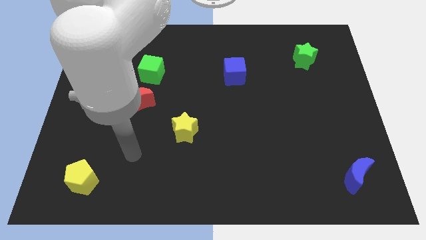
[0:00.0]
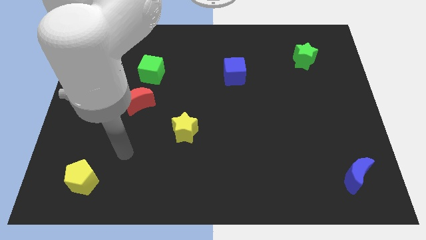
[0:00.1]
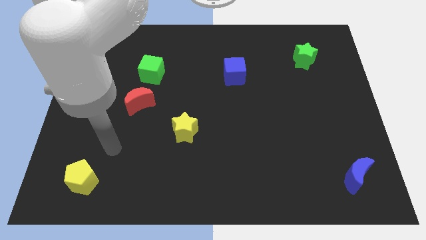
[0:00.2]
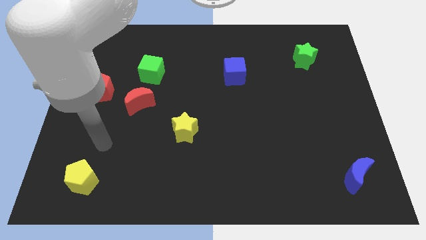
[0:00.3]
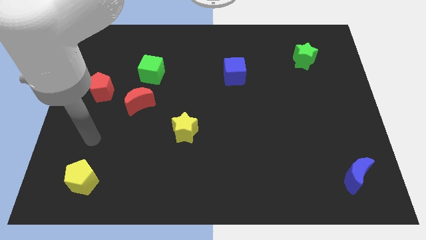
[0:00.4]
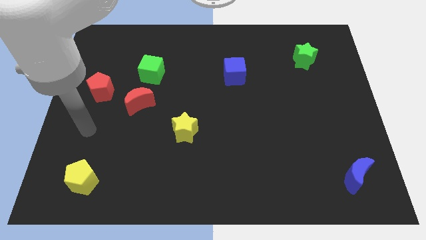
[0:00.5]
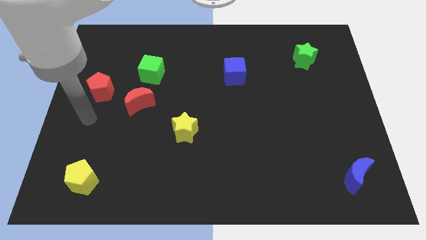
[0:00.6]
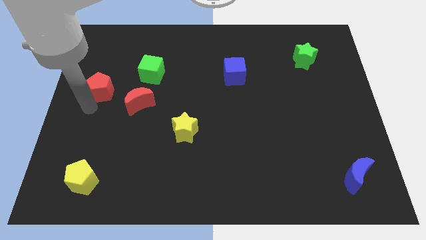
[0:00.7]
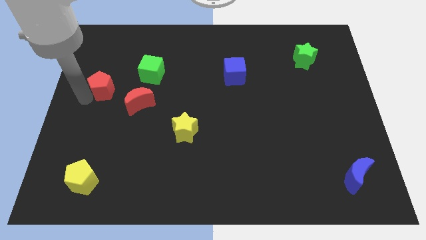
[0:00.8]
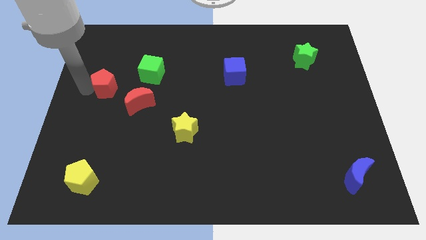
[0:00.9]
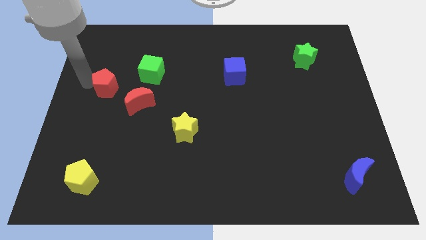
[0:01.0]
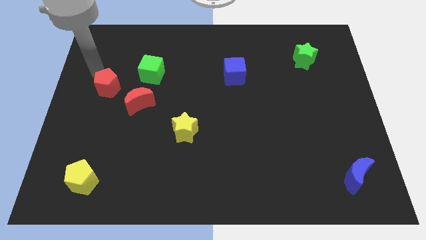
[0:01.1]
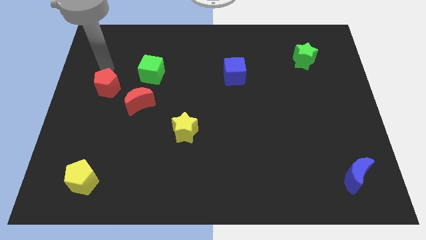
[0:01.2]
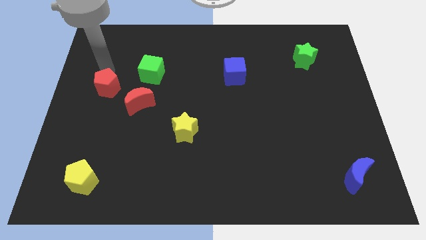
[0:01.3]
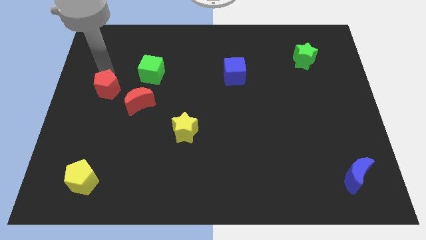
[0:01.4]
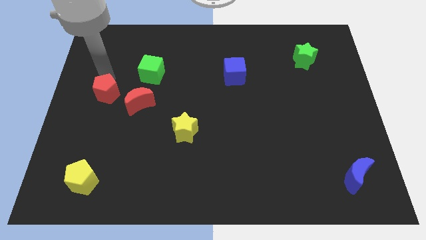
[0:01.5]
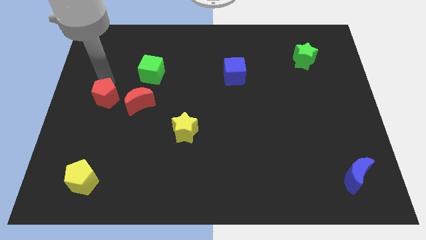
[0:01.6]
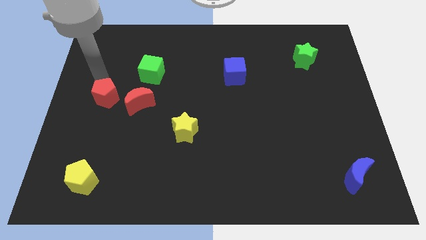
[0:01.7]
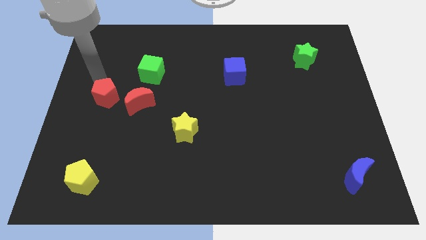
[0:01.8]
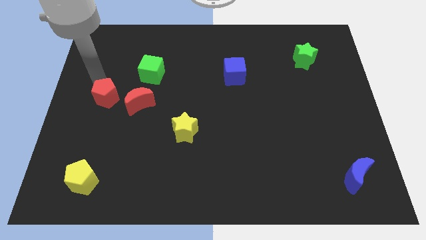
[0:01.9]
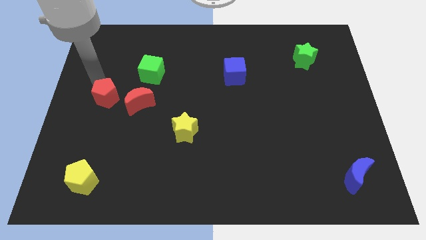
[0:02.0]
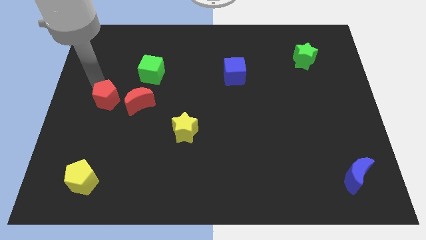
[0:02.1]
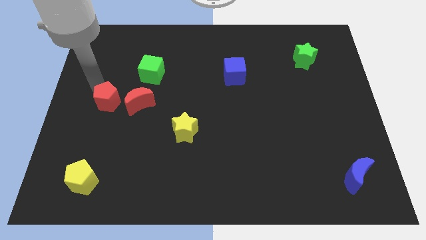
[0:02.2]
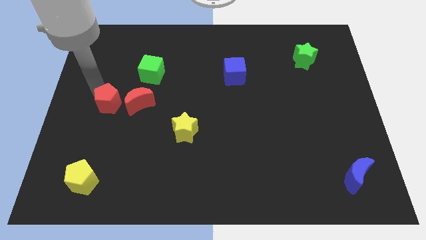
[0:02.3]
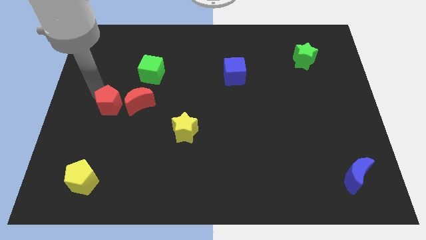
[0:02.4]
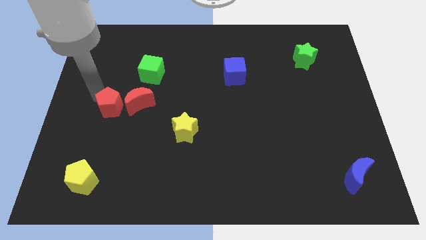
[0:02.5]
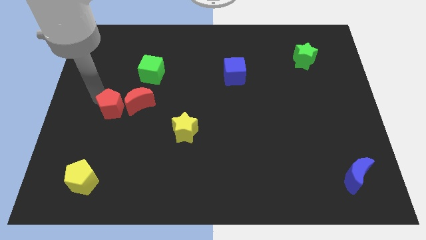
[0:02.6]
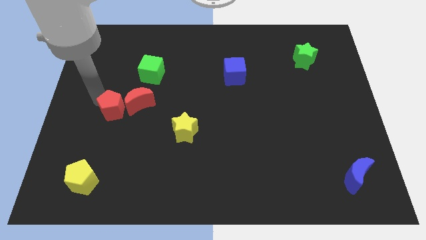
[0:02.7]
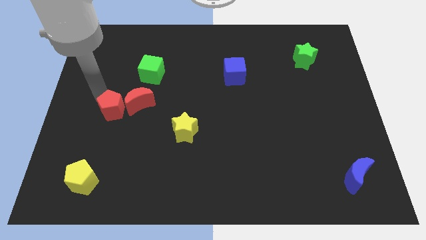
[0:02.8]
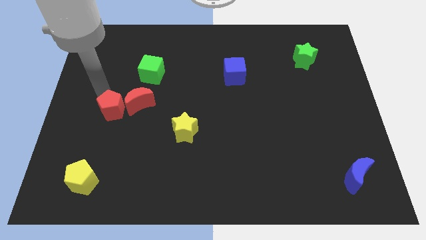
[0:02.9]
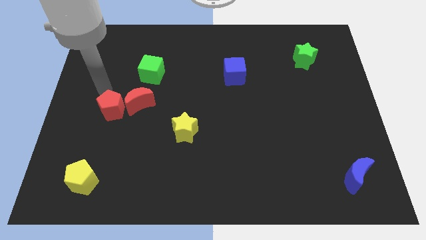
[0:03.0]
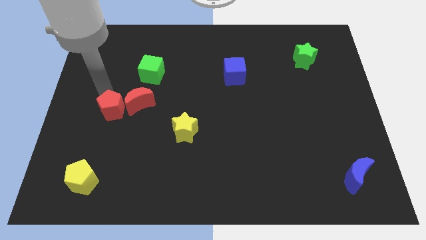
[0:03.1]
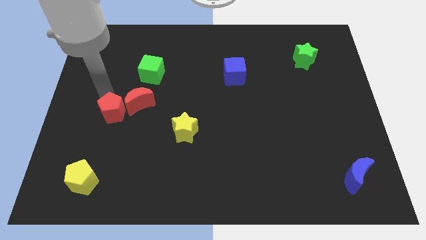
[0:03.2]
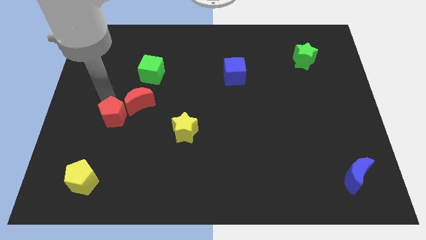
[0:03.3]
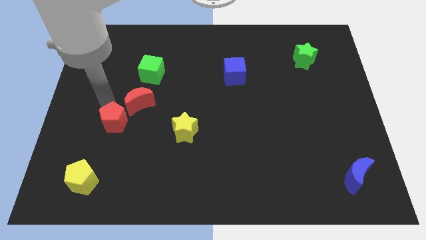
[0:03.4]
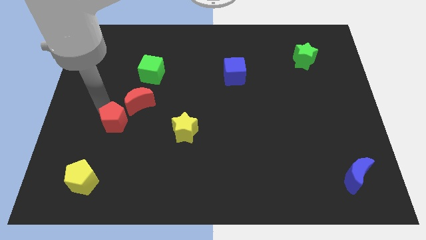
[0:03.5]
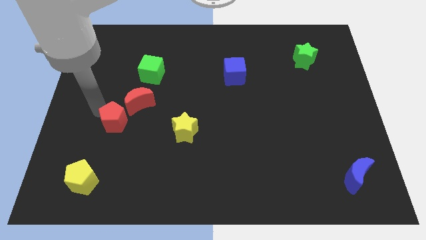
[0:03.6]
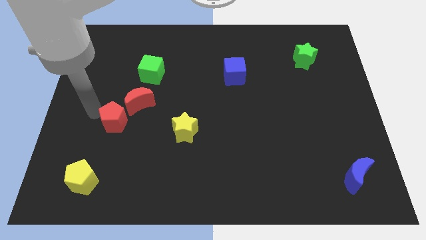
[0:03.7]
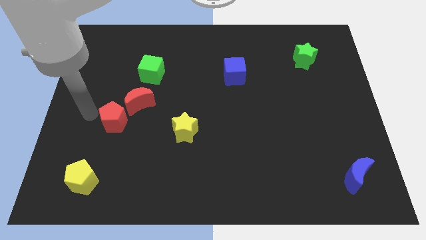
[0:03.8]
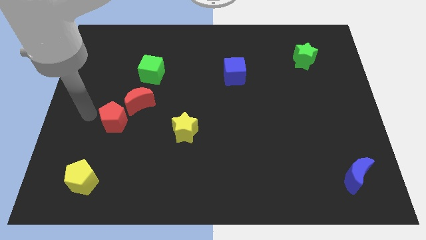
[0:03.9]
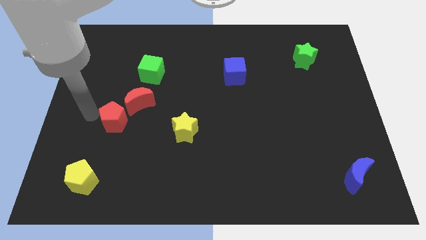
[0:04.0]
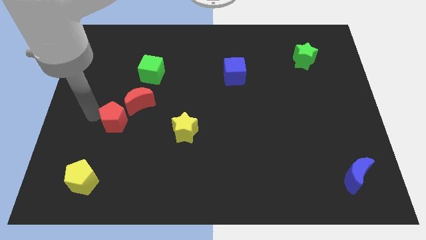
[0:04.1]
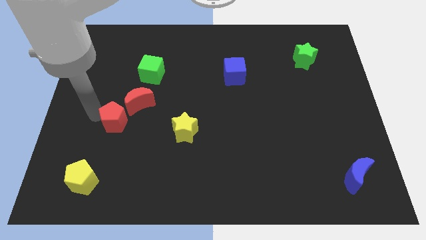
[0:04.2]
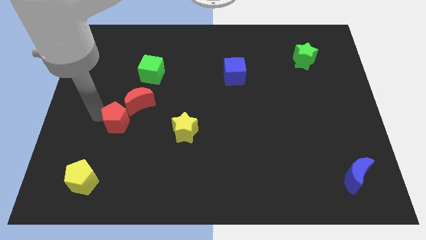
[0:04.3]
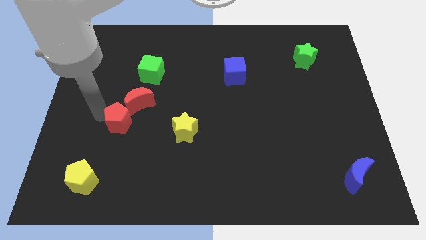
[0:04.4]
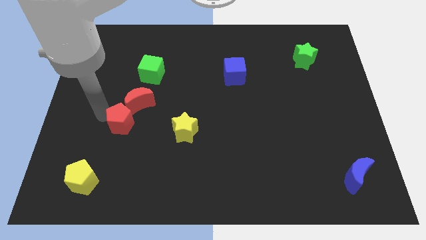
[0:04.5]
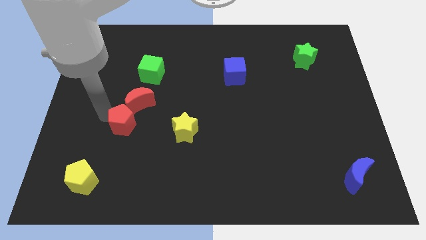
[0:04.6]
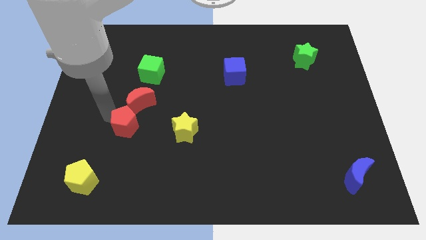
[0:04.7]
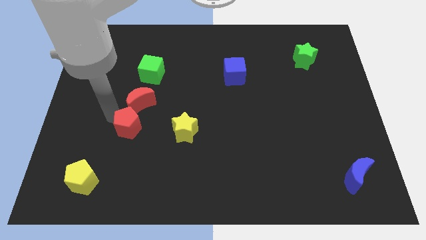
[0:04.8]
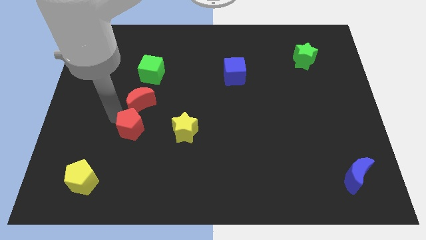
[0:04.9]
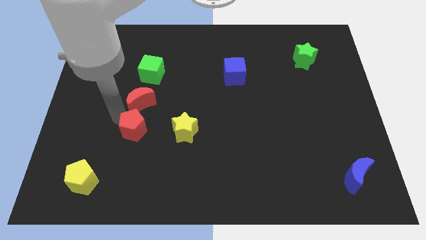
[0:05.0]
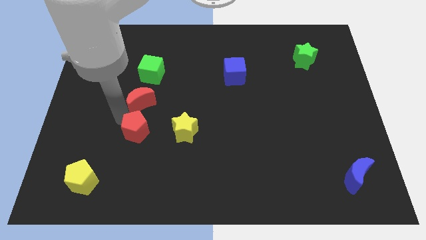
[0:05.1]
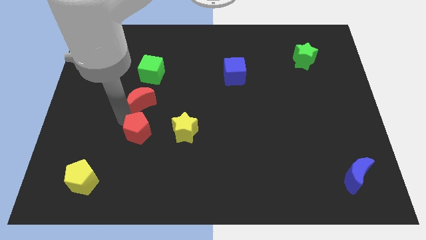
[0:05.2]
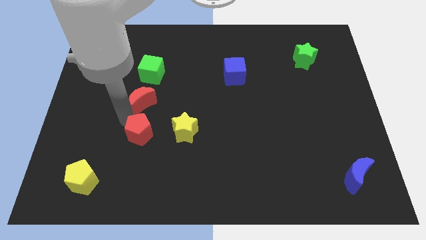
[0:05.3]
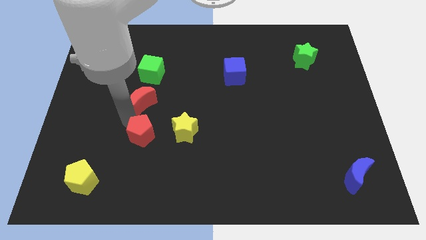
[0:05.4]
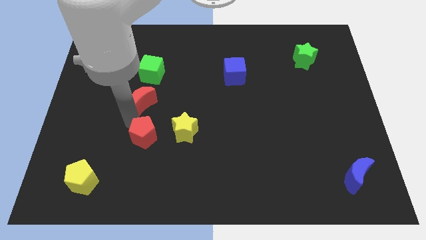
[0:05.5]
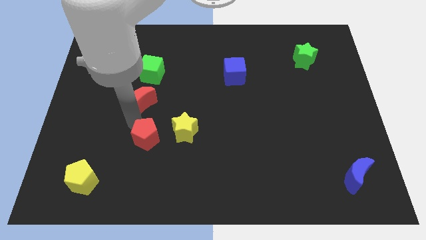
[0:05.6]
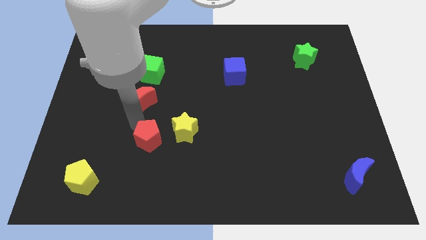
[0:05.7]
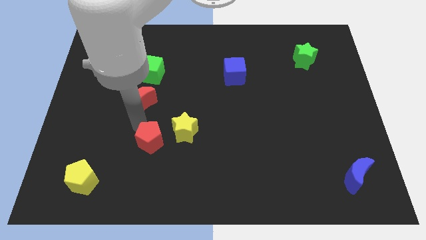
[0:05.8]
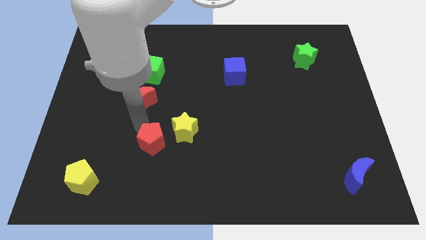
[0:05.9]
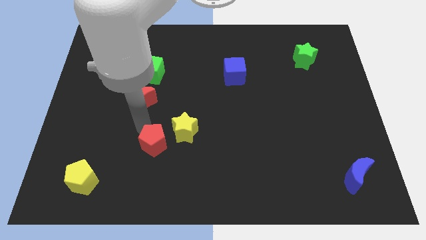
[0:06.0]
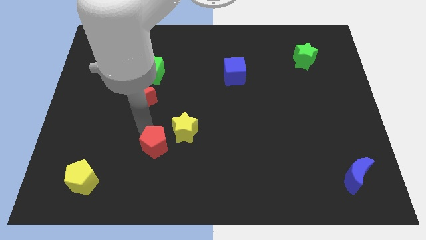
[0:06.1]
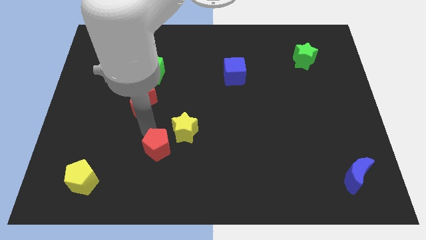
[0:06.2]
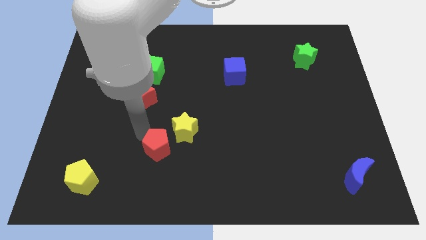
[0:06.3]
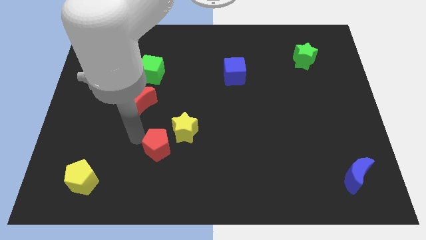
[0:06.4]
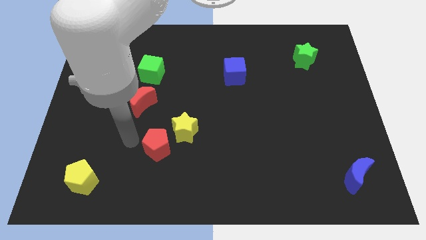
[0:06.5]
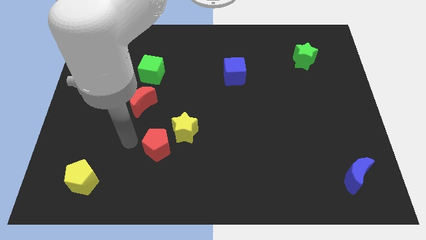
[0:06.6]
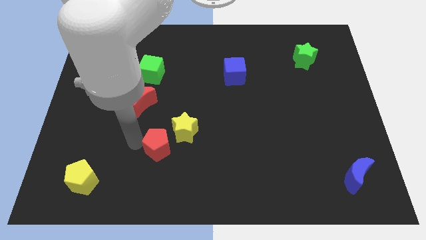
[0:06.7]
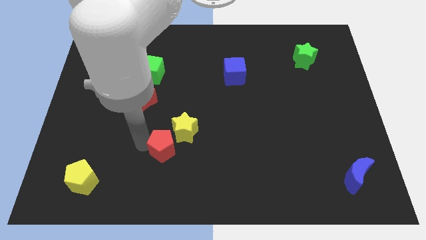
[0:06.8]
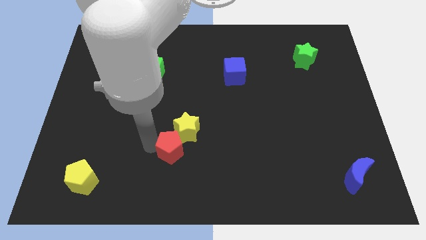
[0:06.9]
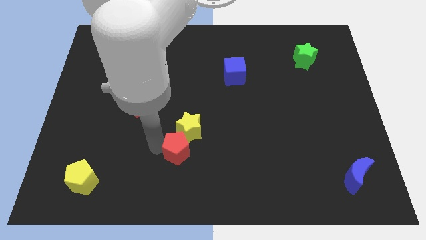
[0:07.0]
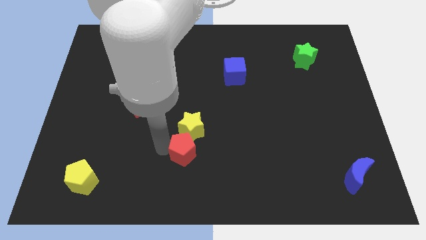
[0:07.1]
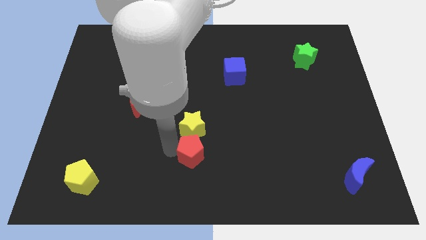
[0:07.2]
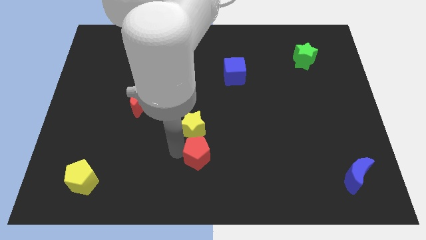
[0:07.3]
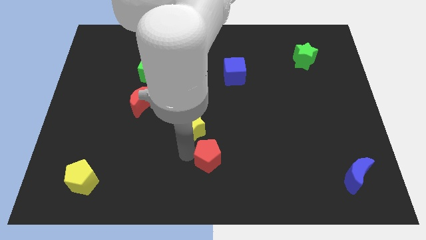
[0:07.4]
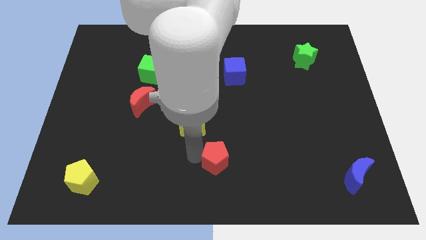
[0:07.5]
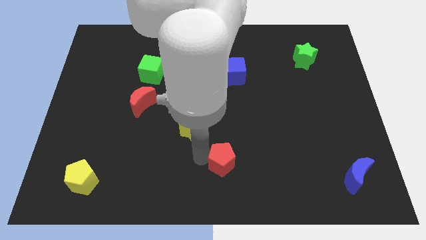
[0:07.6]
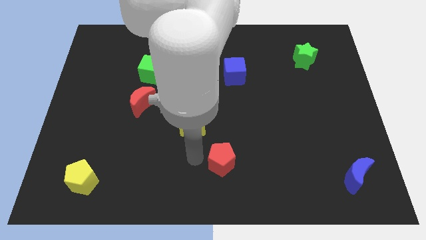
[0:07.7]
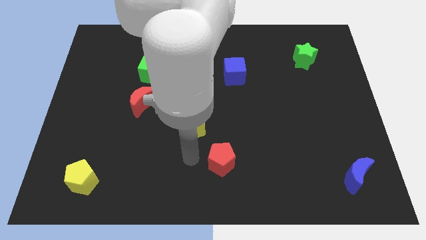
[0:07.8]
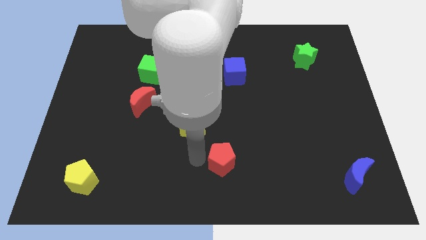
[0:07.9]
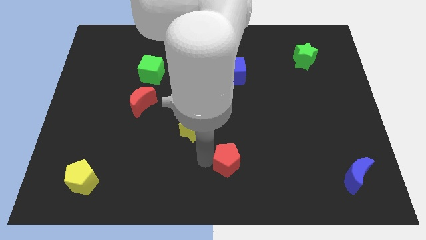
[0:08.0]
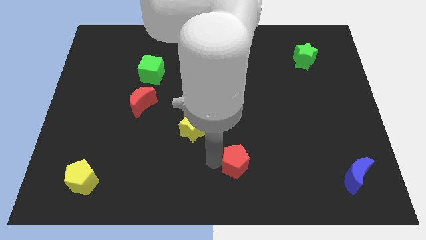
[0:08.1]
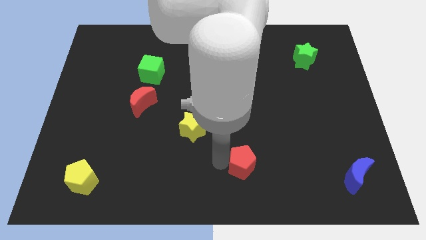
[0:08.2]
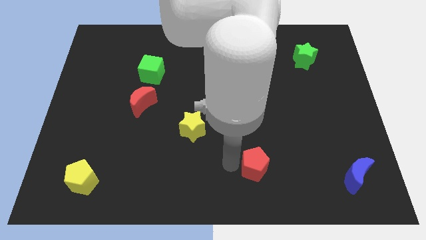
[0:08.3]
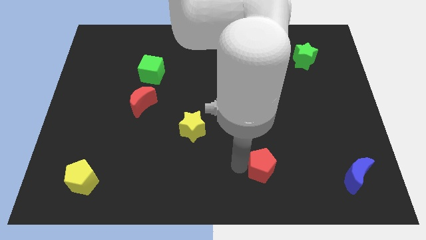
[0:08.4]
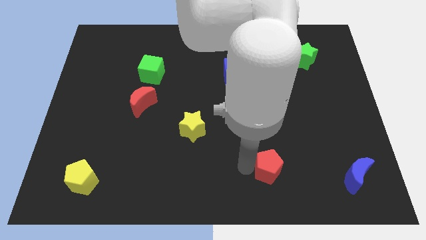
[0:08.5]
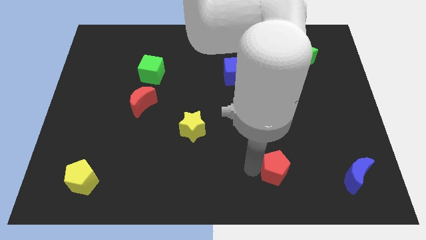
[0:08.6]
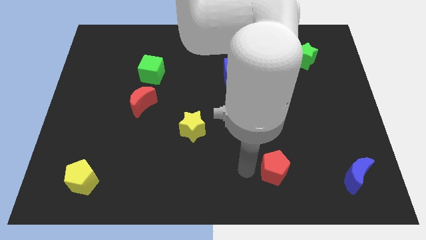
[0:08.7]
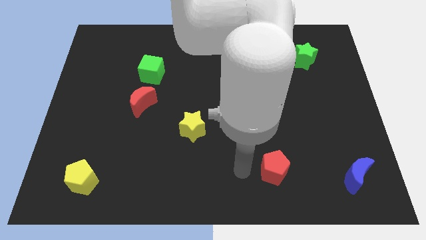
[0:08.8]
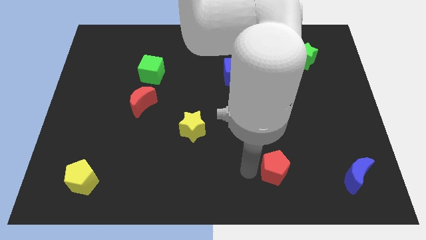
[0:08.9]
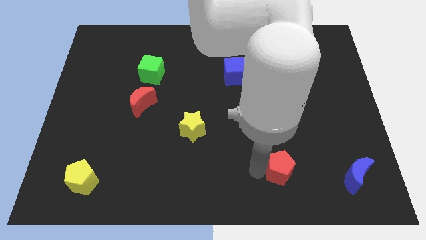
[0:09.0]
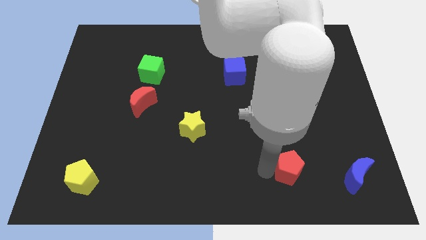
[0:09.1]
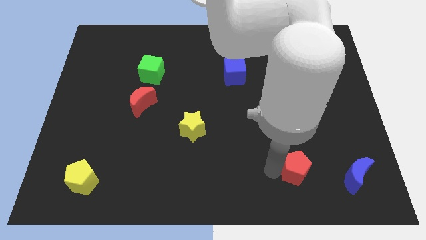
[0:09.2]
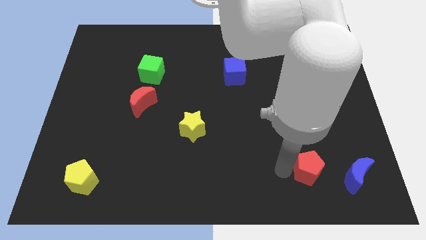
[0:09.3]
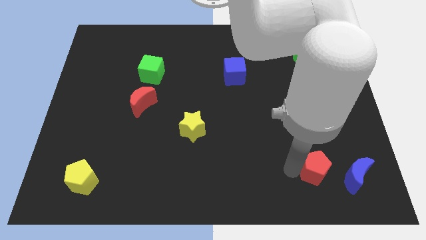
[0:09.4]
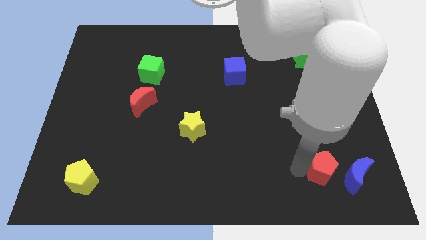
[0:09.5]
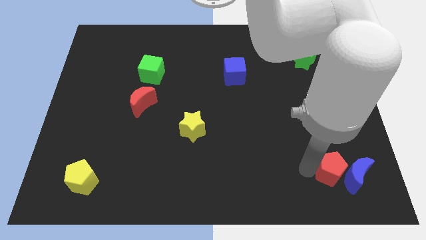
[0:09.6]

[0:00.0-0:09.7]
move the red pentagon close to the blue moon
